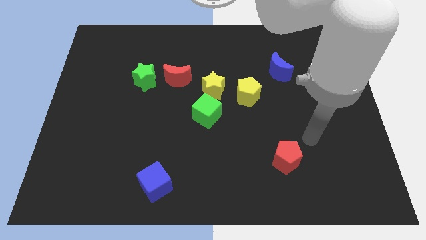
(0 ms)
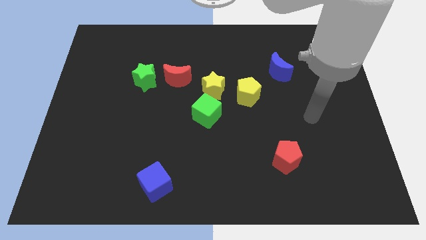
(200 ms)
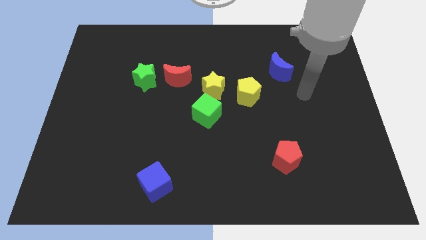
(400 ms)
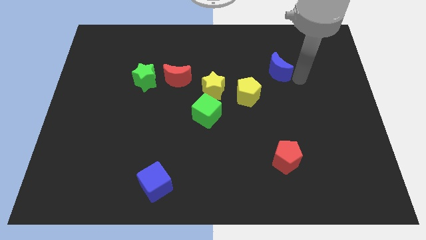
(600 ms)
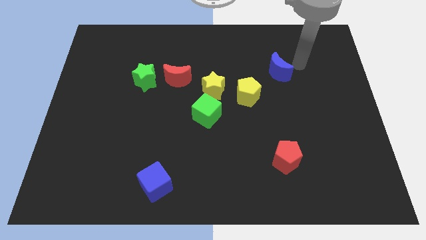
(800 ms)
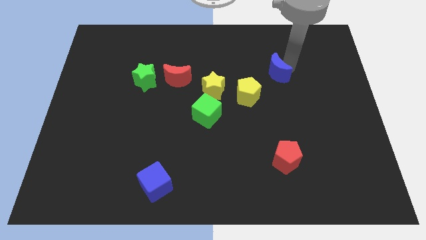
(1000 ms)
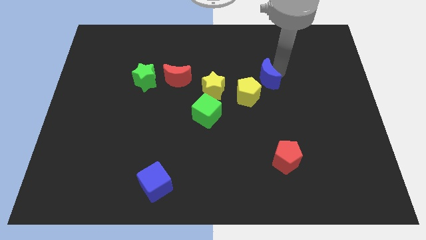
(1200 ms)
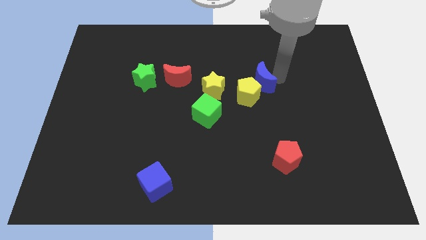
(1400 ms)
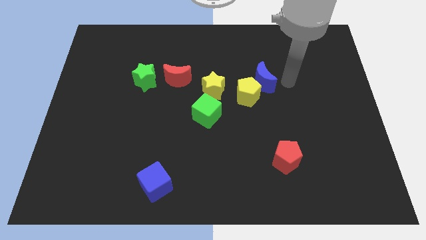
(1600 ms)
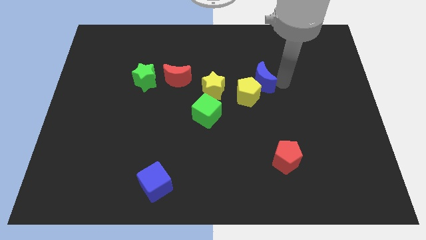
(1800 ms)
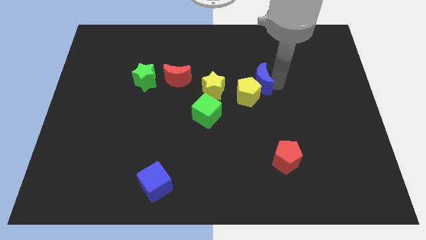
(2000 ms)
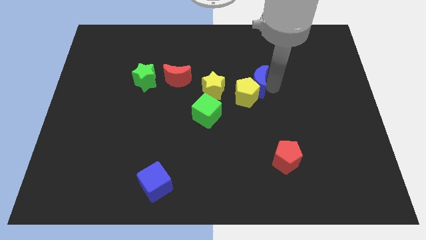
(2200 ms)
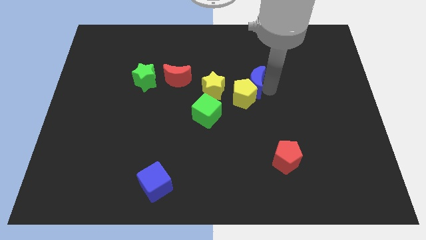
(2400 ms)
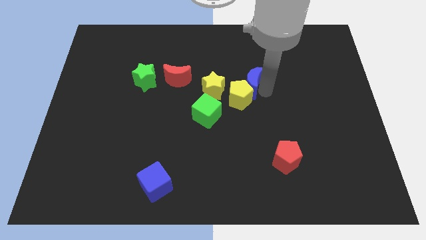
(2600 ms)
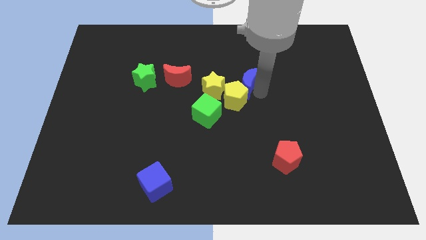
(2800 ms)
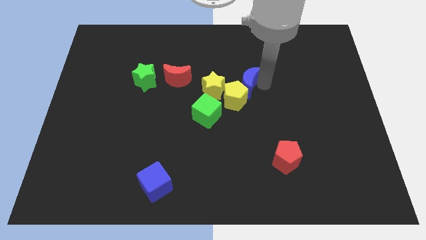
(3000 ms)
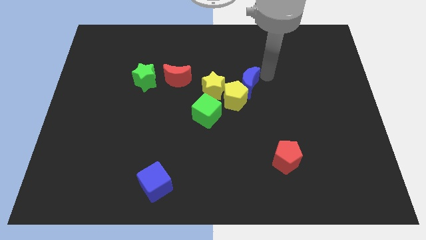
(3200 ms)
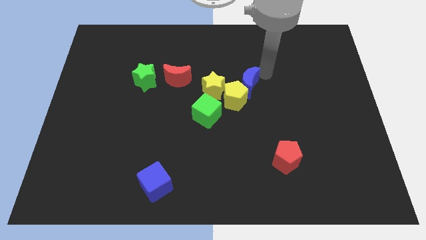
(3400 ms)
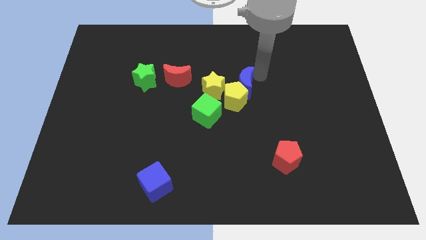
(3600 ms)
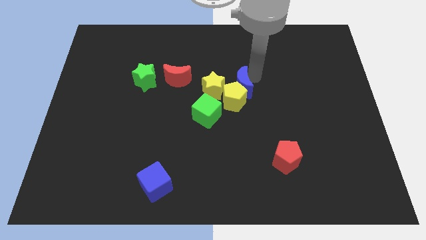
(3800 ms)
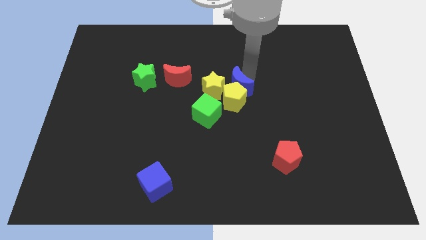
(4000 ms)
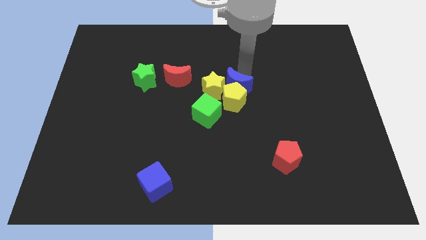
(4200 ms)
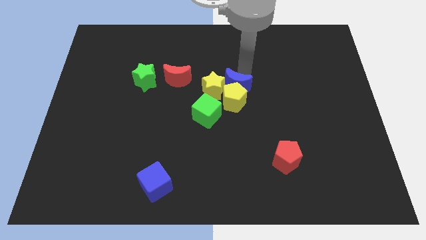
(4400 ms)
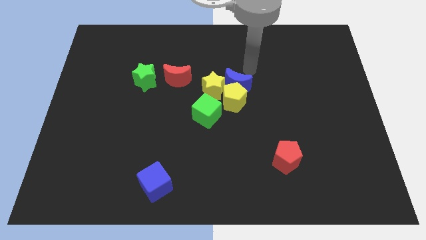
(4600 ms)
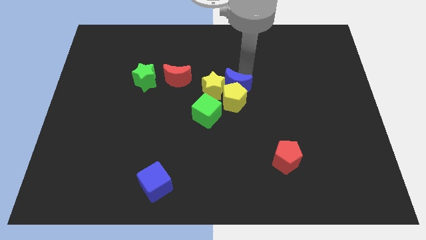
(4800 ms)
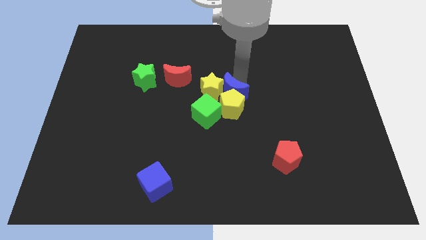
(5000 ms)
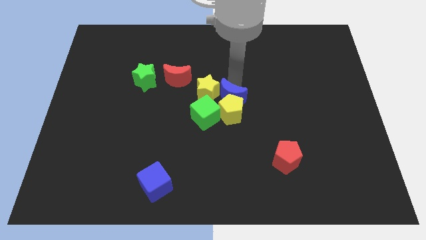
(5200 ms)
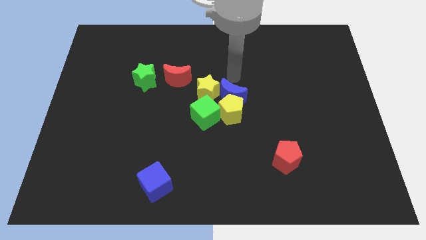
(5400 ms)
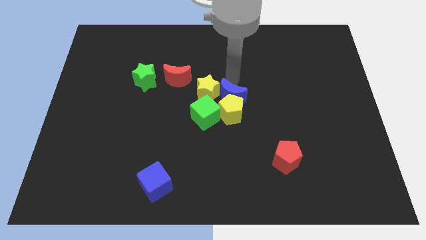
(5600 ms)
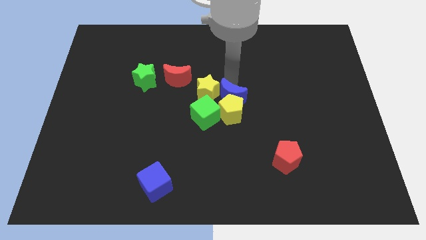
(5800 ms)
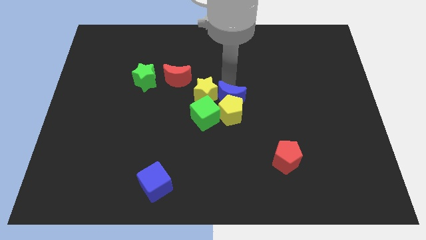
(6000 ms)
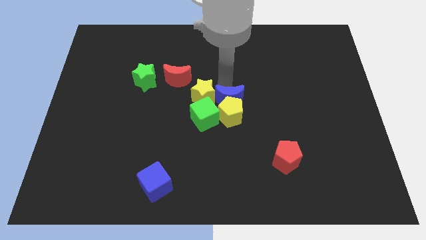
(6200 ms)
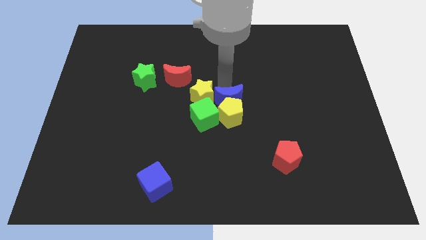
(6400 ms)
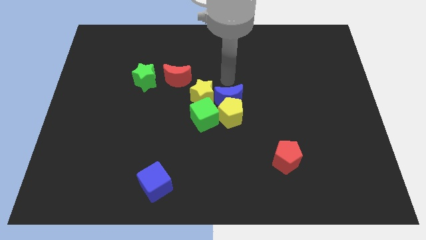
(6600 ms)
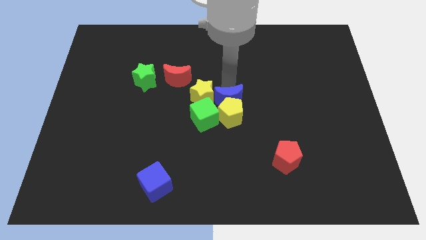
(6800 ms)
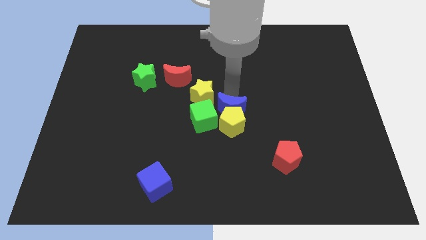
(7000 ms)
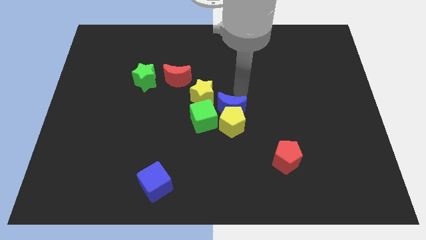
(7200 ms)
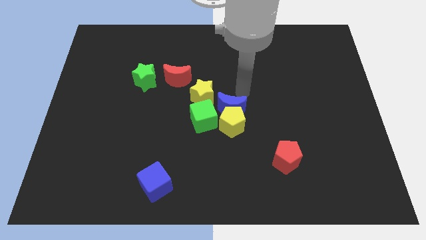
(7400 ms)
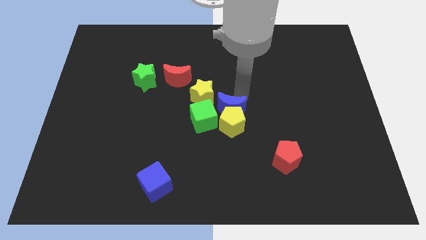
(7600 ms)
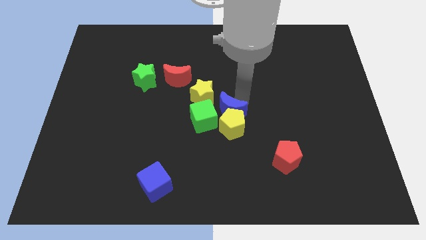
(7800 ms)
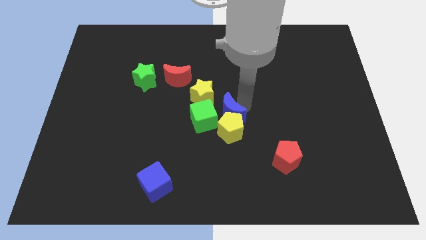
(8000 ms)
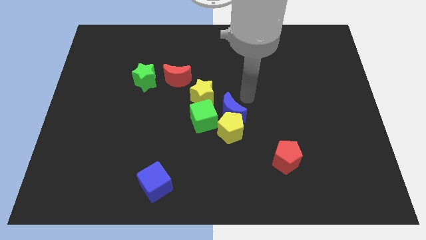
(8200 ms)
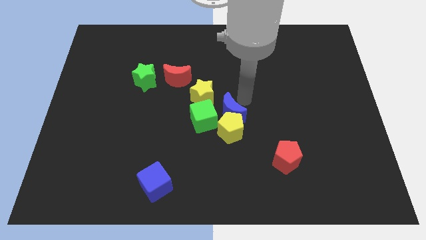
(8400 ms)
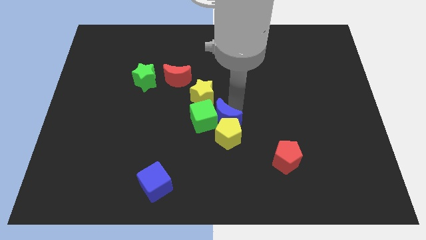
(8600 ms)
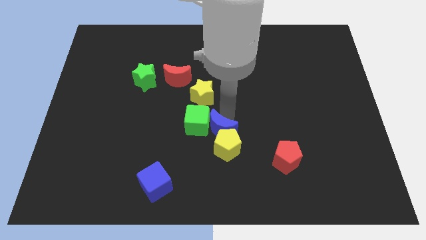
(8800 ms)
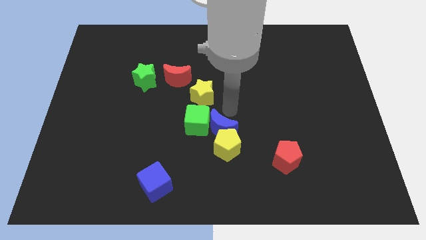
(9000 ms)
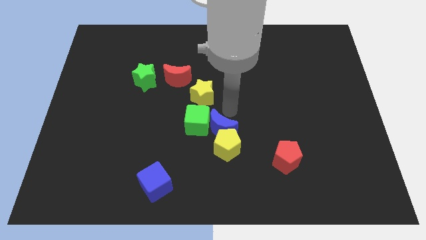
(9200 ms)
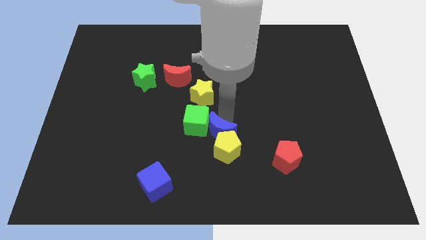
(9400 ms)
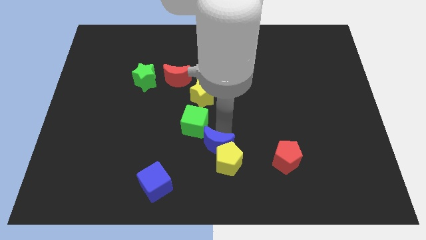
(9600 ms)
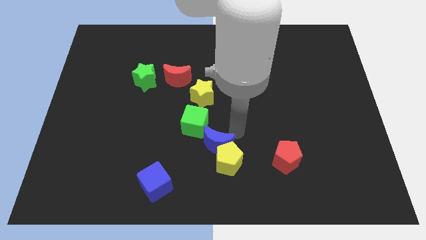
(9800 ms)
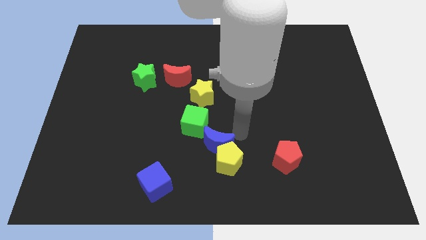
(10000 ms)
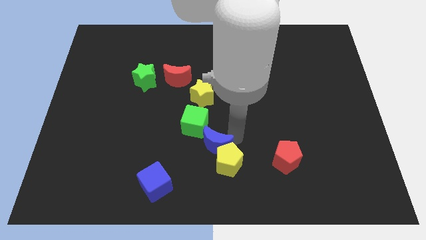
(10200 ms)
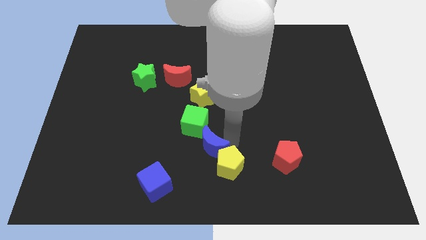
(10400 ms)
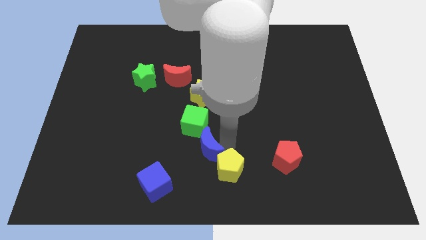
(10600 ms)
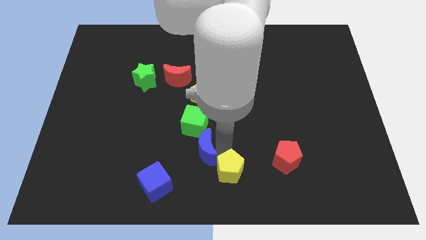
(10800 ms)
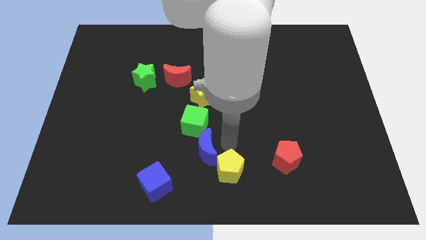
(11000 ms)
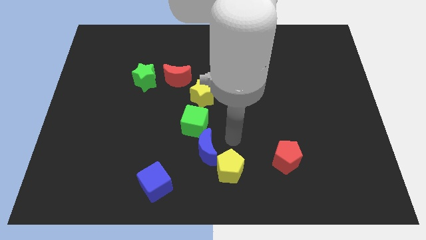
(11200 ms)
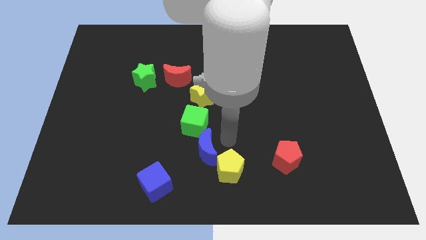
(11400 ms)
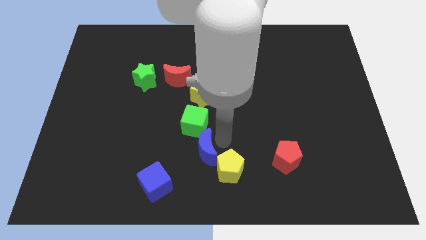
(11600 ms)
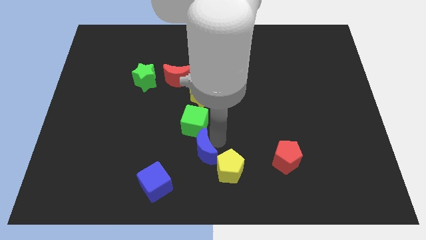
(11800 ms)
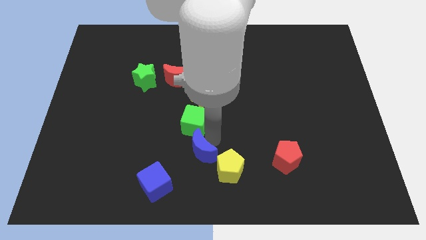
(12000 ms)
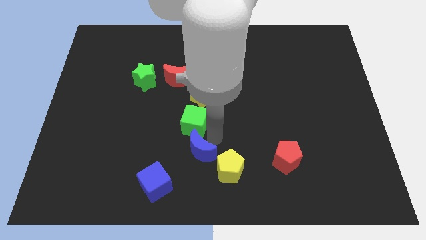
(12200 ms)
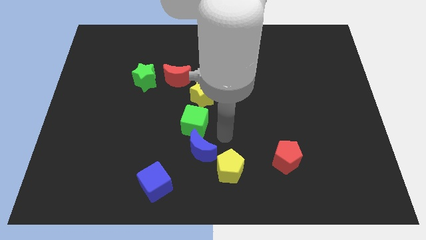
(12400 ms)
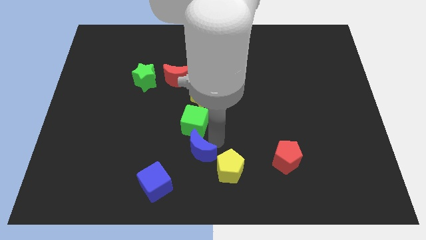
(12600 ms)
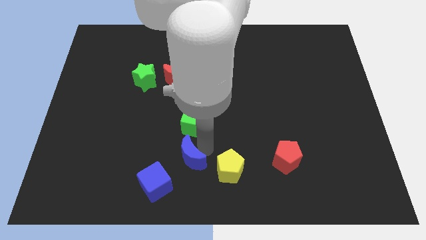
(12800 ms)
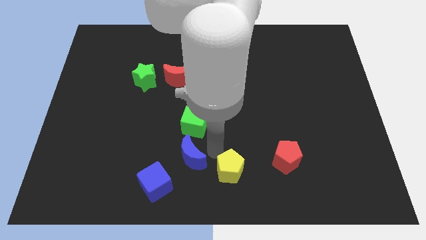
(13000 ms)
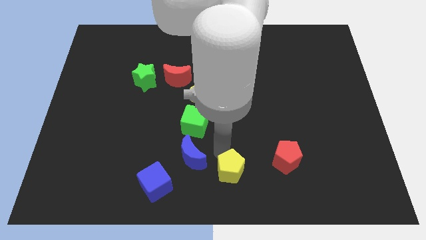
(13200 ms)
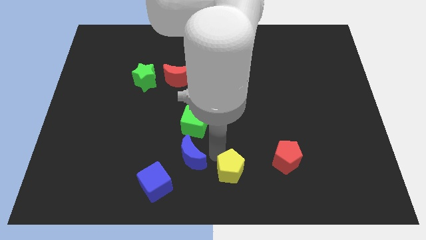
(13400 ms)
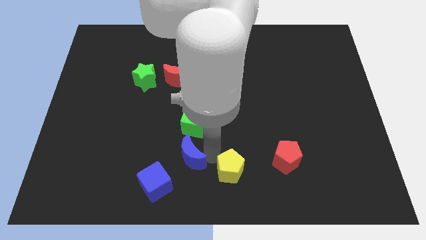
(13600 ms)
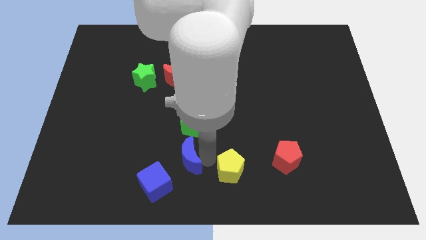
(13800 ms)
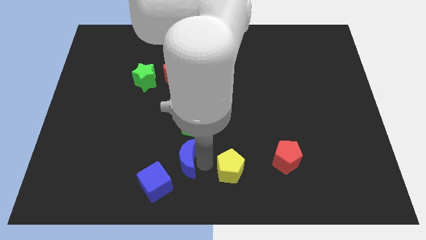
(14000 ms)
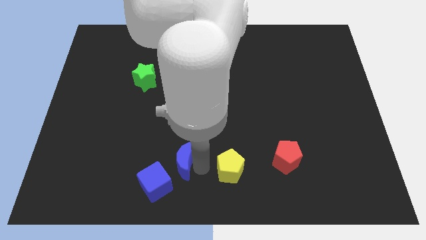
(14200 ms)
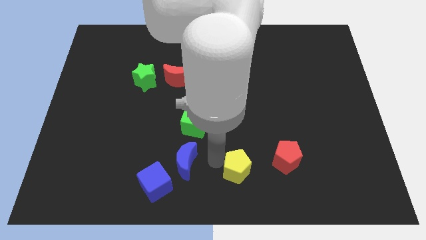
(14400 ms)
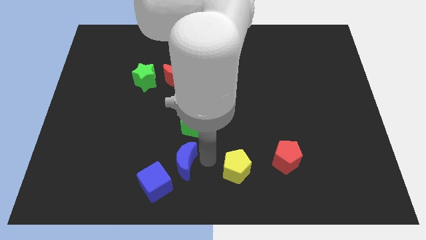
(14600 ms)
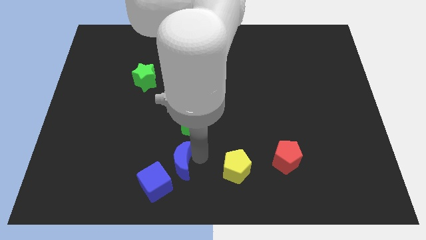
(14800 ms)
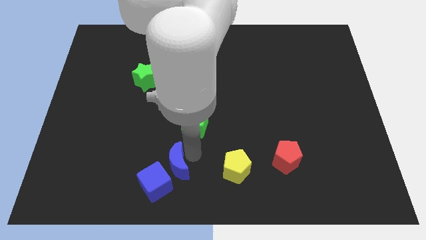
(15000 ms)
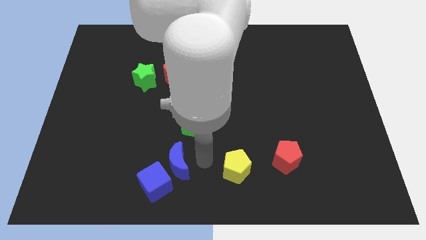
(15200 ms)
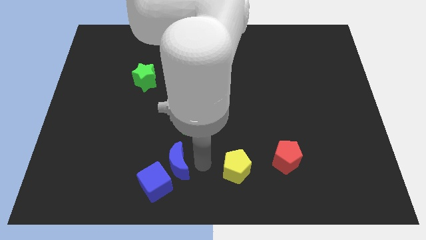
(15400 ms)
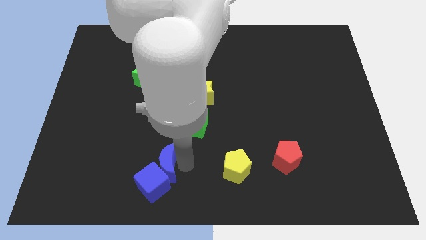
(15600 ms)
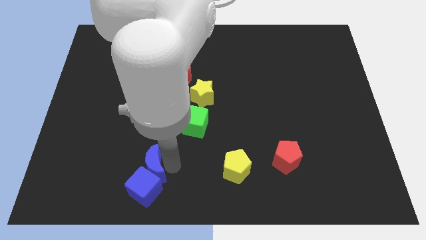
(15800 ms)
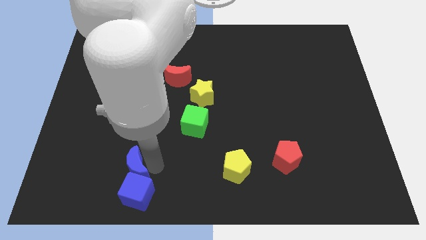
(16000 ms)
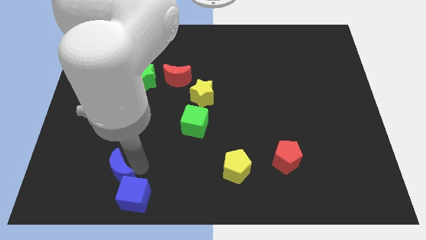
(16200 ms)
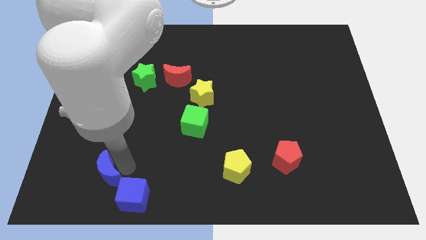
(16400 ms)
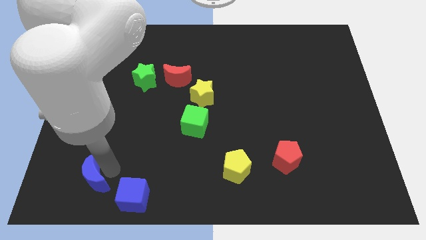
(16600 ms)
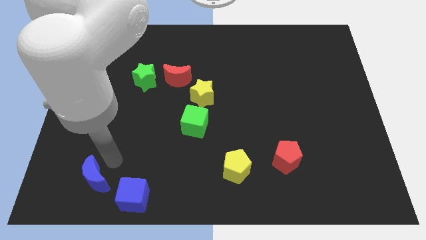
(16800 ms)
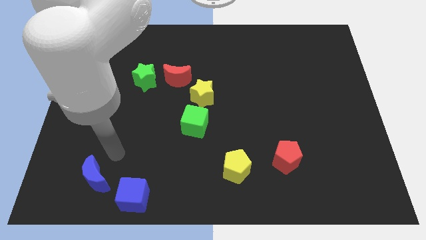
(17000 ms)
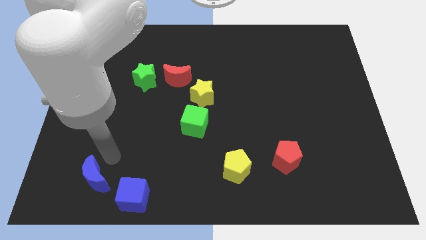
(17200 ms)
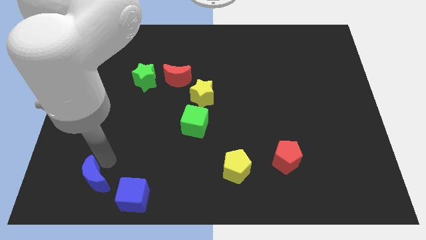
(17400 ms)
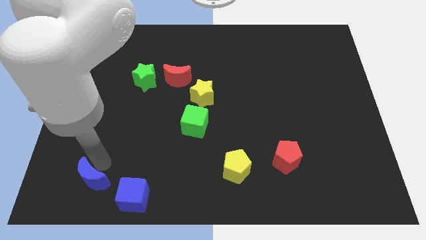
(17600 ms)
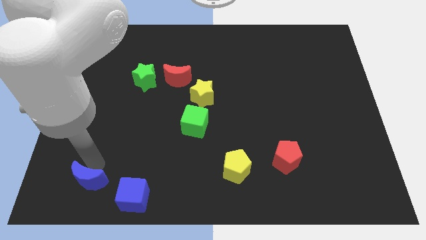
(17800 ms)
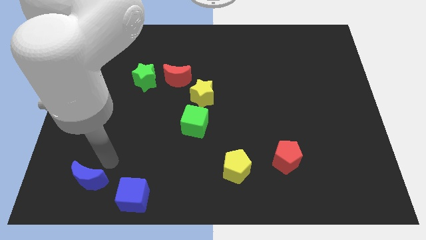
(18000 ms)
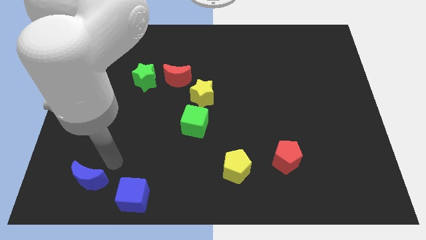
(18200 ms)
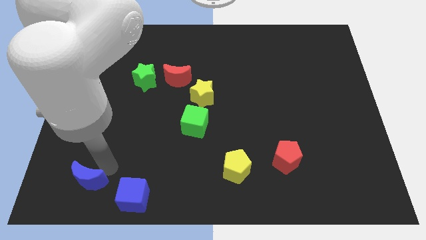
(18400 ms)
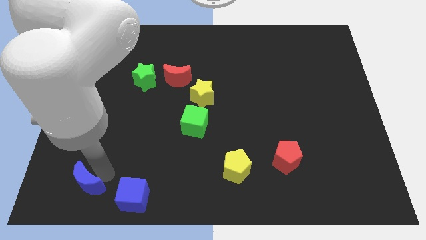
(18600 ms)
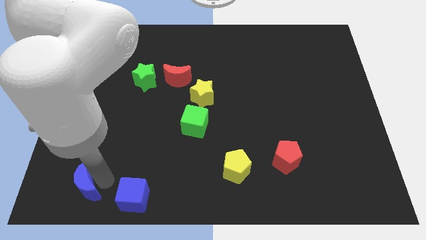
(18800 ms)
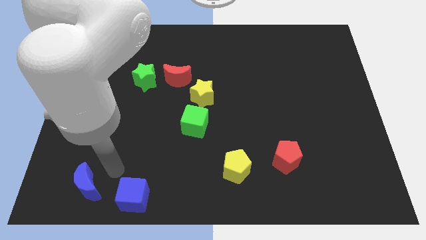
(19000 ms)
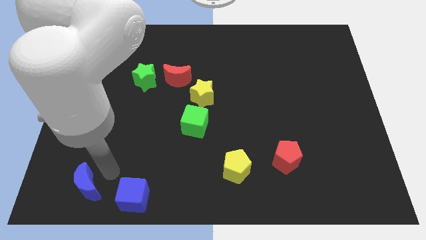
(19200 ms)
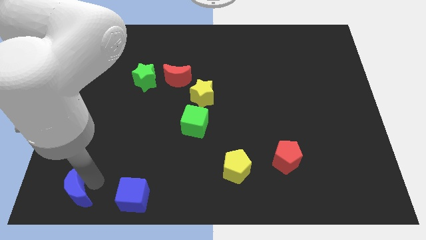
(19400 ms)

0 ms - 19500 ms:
slide the blue moon to the bottom left corner
